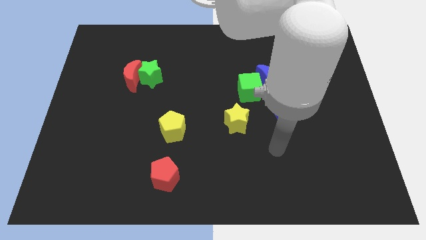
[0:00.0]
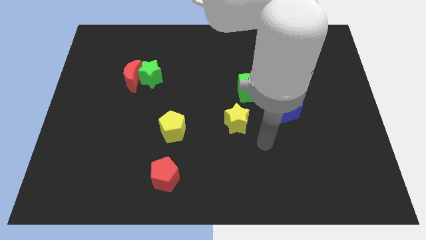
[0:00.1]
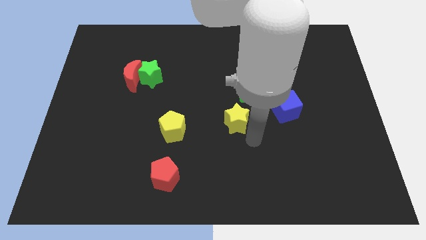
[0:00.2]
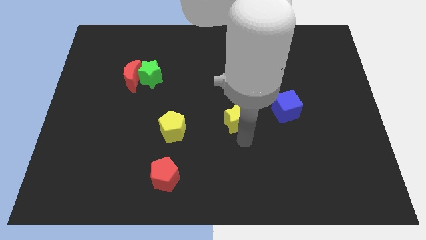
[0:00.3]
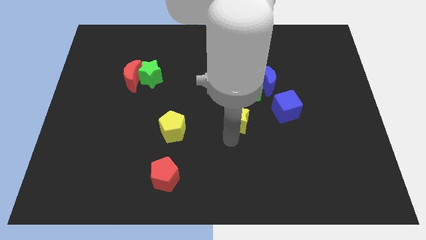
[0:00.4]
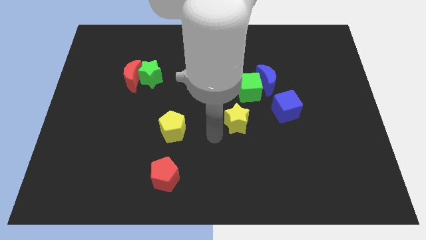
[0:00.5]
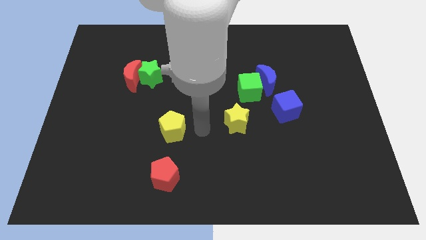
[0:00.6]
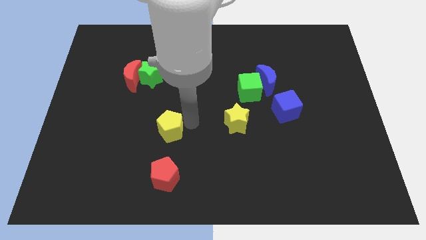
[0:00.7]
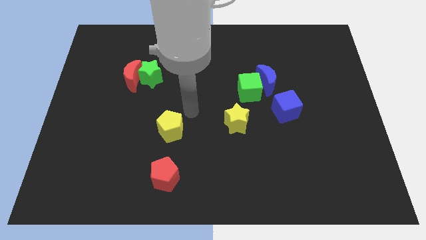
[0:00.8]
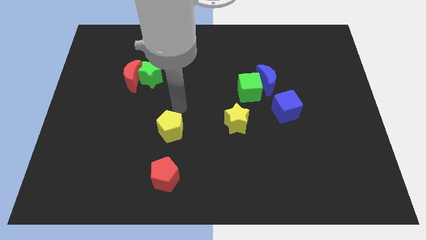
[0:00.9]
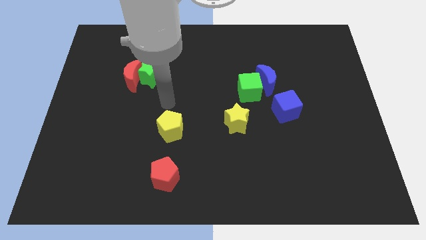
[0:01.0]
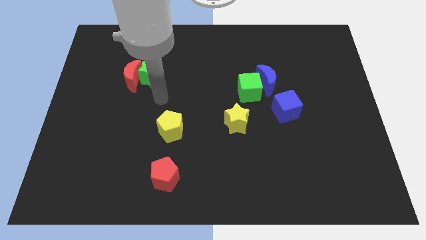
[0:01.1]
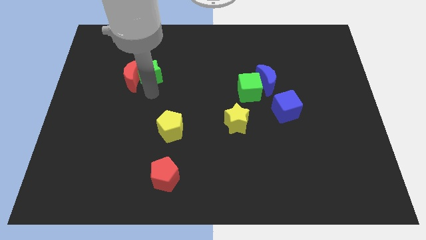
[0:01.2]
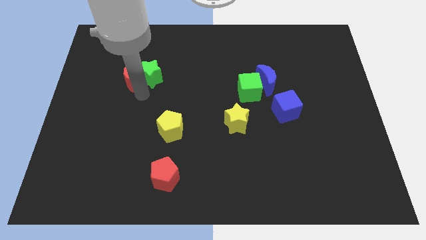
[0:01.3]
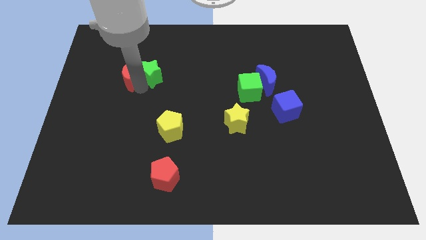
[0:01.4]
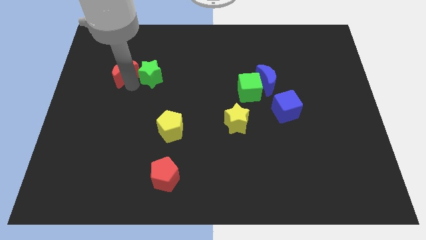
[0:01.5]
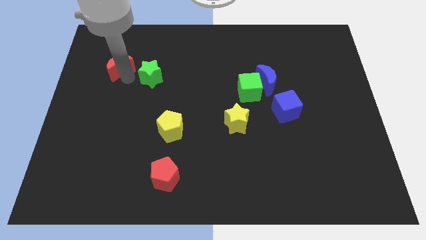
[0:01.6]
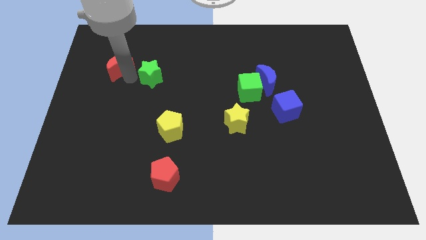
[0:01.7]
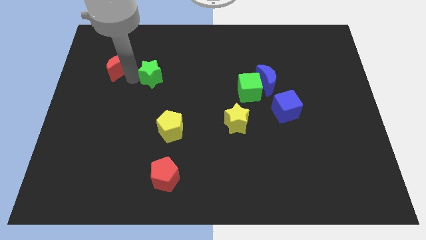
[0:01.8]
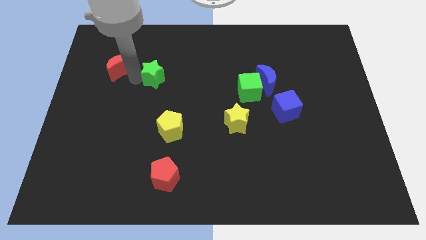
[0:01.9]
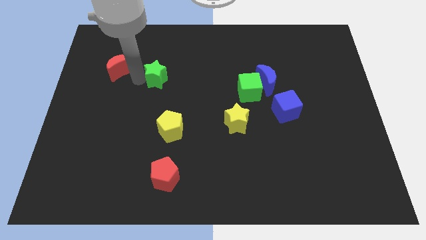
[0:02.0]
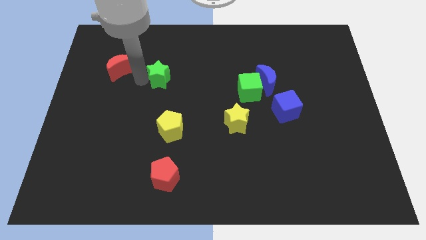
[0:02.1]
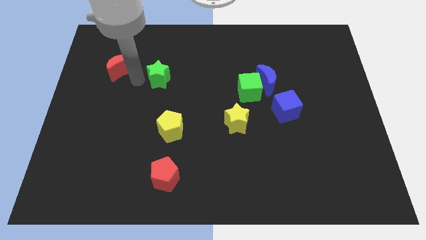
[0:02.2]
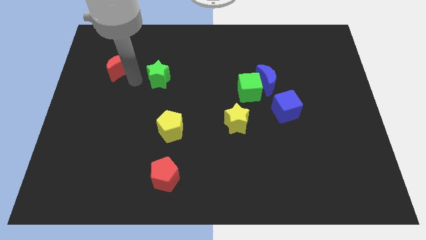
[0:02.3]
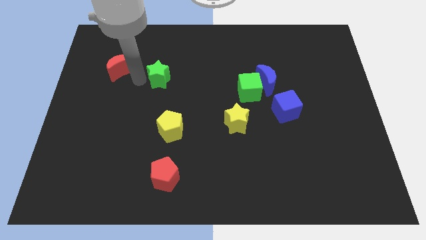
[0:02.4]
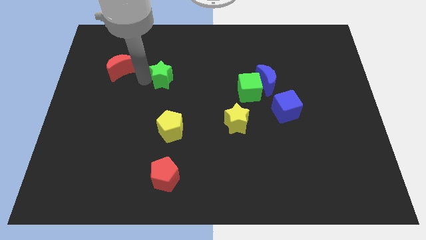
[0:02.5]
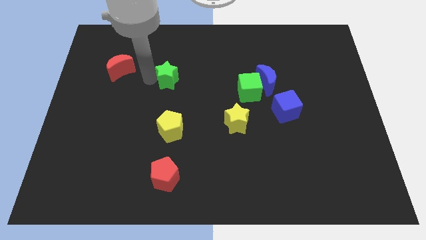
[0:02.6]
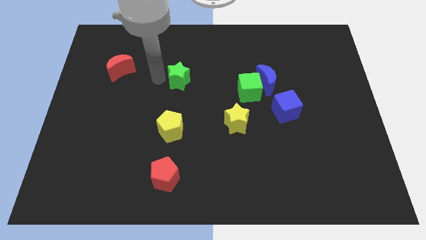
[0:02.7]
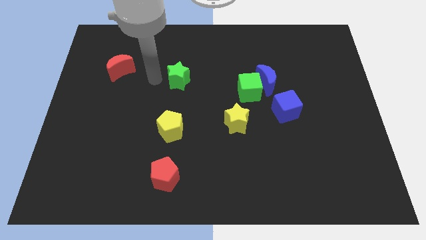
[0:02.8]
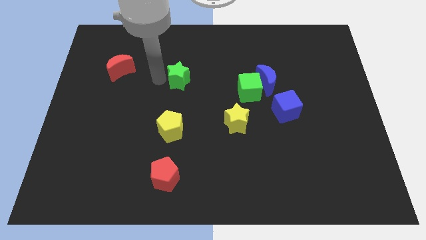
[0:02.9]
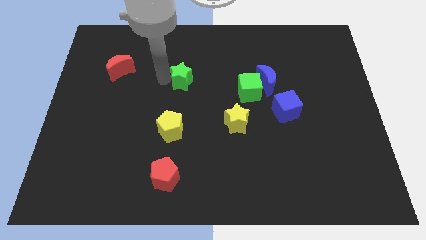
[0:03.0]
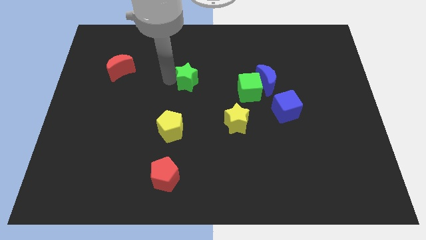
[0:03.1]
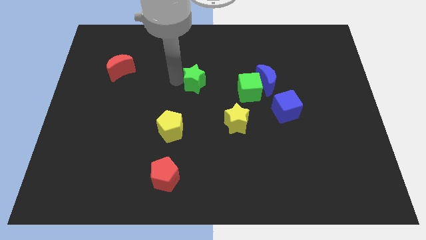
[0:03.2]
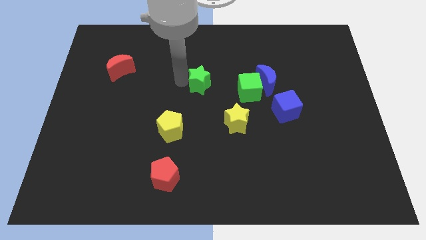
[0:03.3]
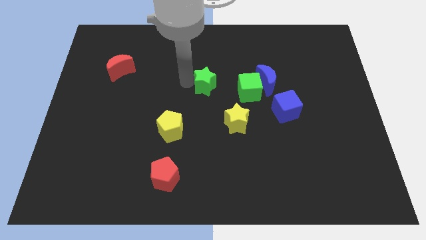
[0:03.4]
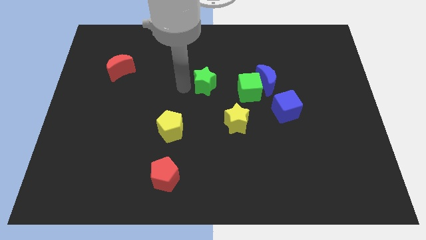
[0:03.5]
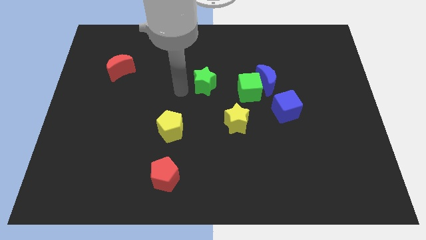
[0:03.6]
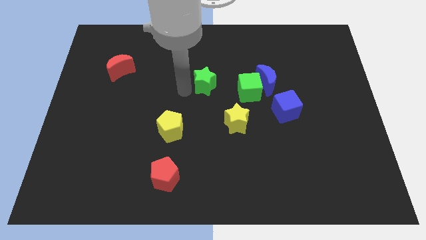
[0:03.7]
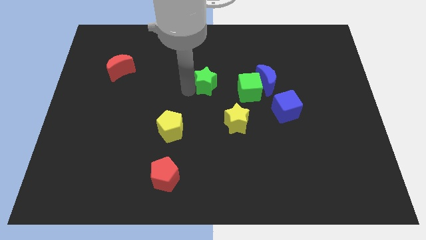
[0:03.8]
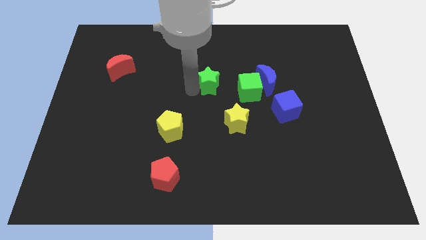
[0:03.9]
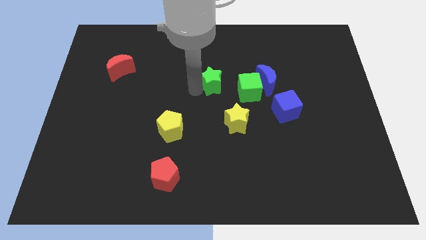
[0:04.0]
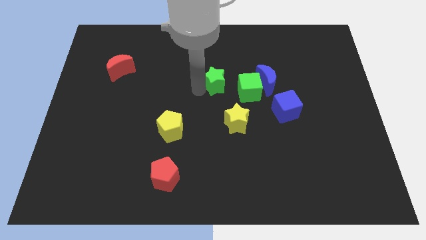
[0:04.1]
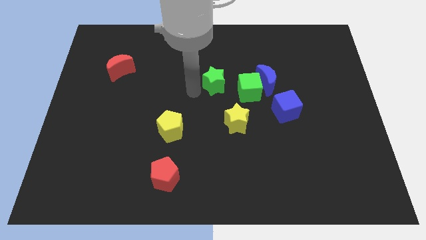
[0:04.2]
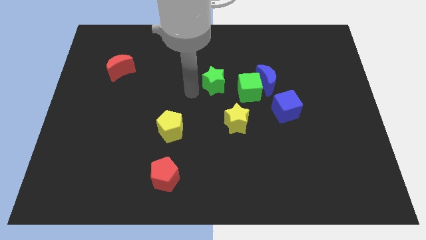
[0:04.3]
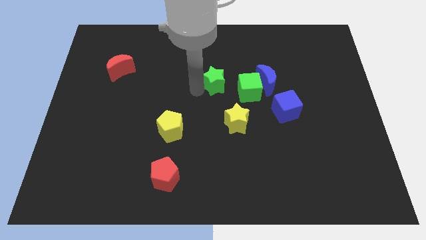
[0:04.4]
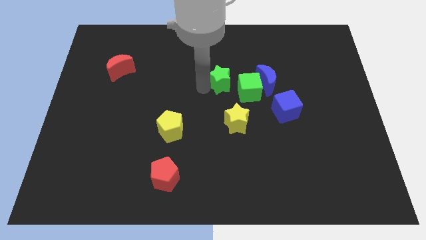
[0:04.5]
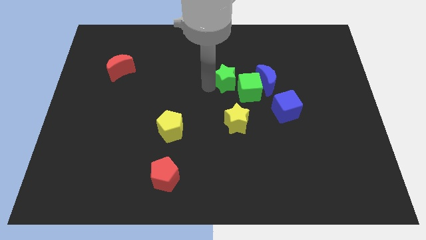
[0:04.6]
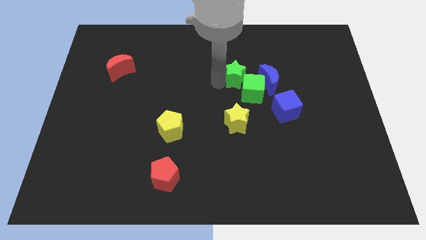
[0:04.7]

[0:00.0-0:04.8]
move the green star right

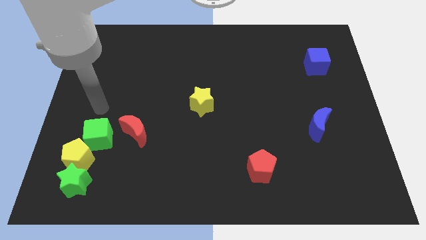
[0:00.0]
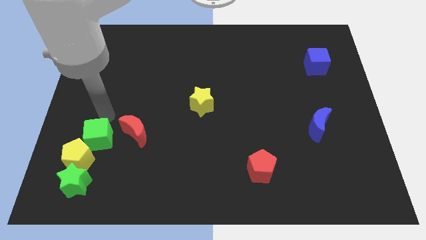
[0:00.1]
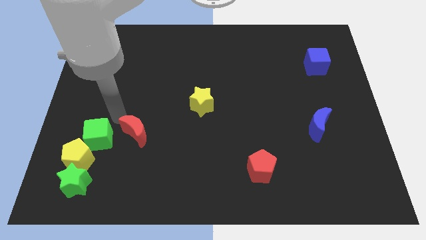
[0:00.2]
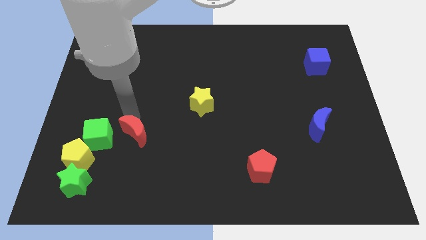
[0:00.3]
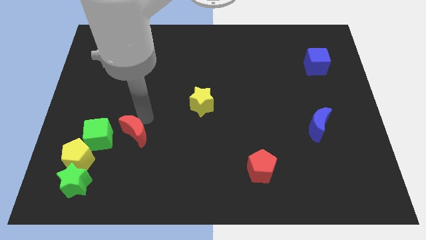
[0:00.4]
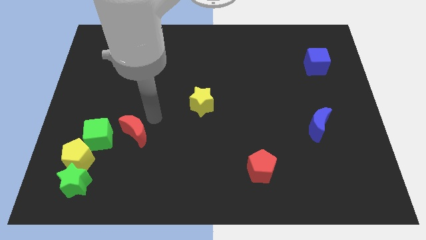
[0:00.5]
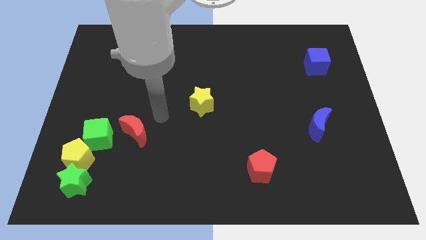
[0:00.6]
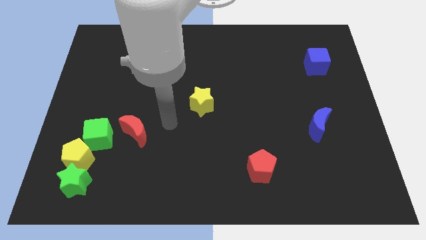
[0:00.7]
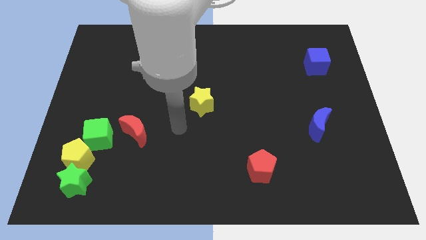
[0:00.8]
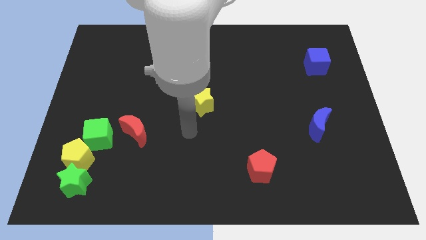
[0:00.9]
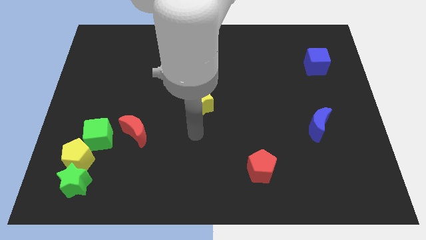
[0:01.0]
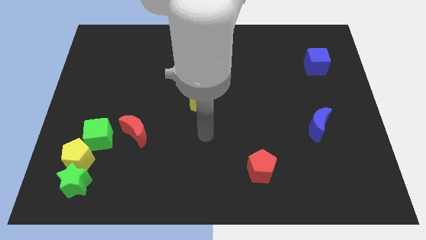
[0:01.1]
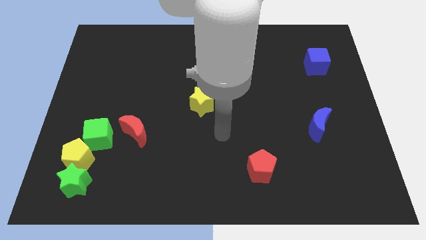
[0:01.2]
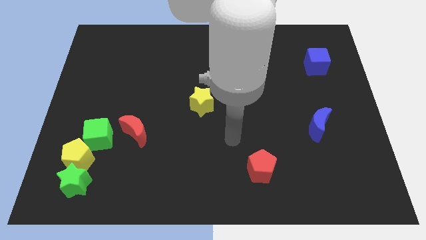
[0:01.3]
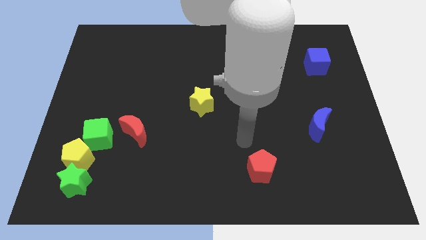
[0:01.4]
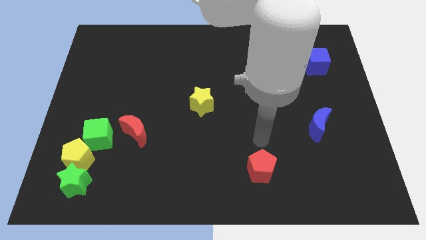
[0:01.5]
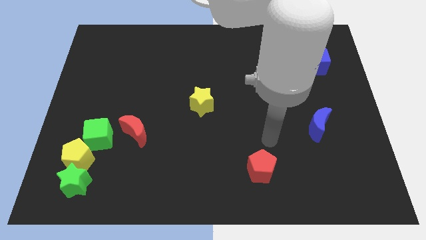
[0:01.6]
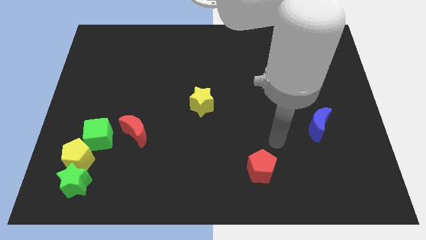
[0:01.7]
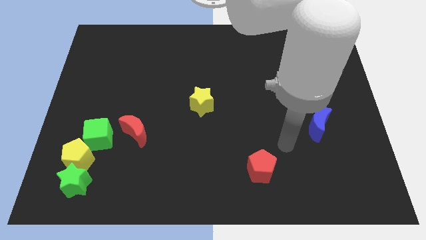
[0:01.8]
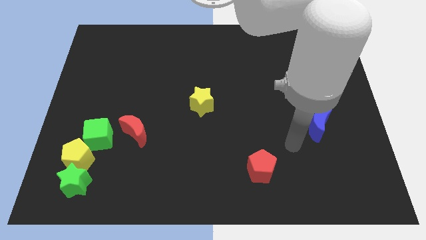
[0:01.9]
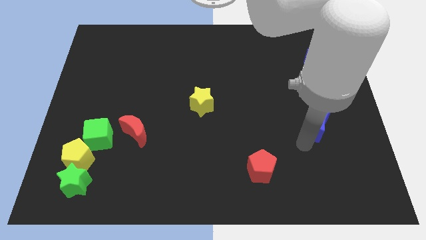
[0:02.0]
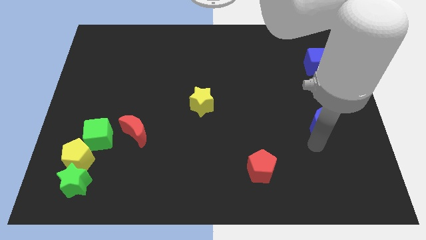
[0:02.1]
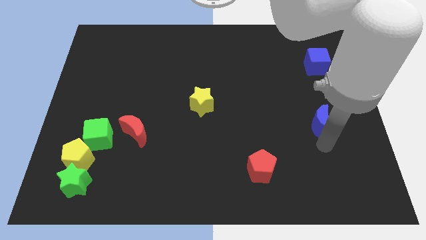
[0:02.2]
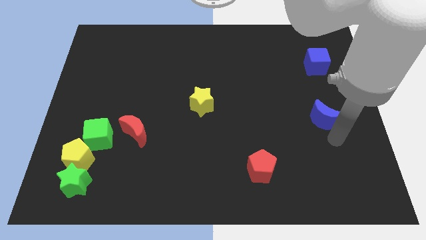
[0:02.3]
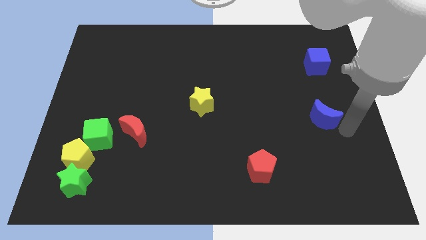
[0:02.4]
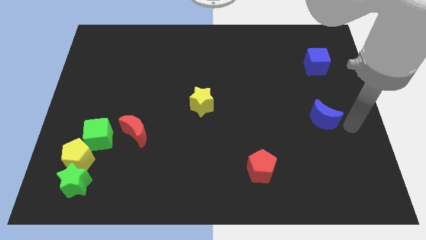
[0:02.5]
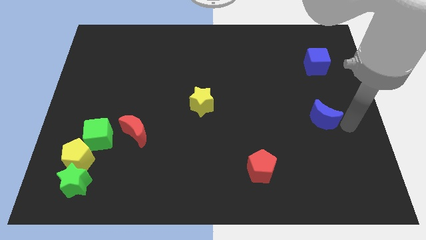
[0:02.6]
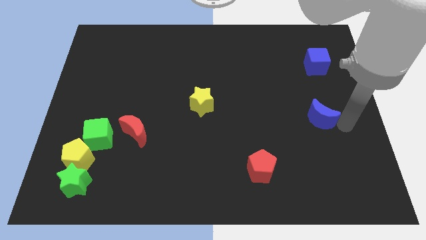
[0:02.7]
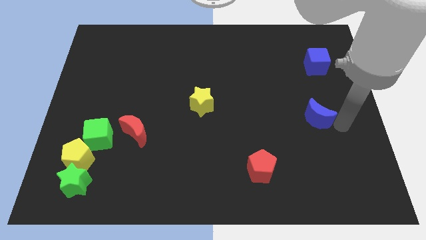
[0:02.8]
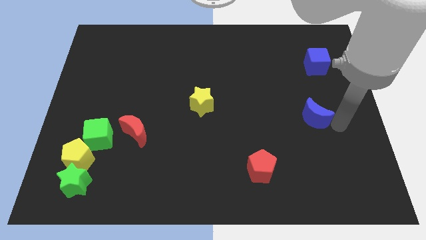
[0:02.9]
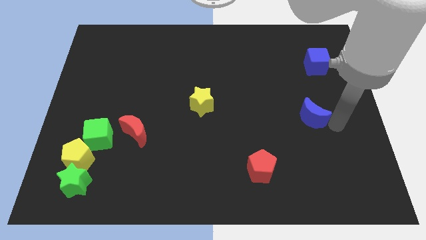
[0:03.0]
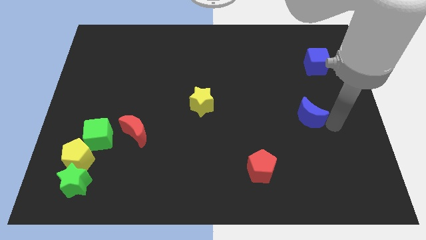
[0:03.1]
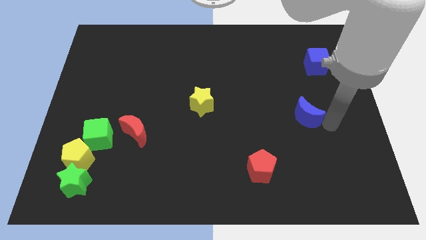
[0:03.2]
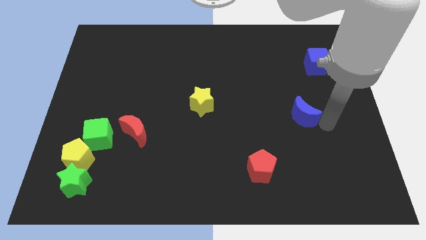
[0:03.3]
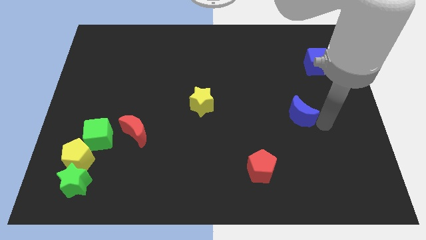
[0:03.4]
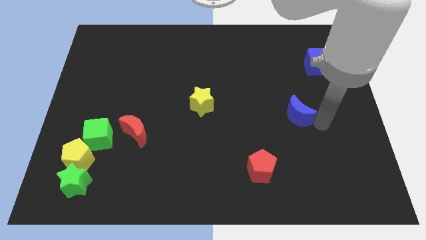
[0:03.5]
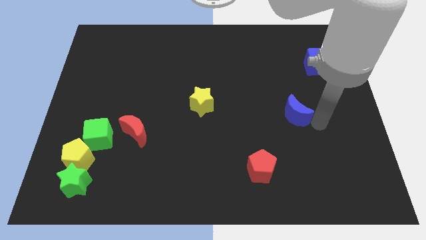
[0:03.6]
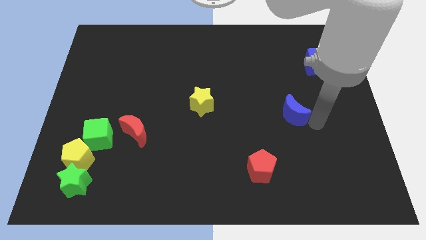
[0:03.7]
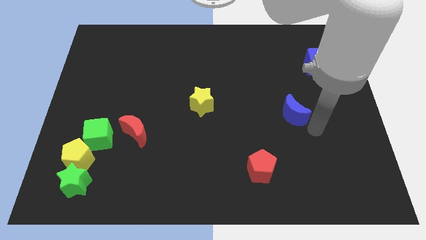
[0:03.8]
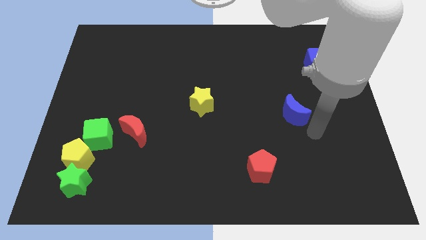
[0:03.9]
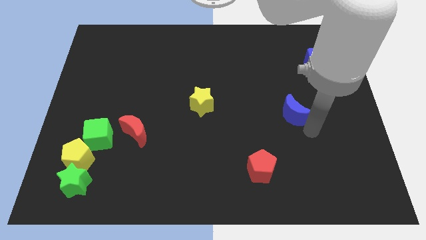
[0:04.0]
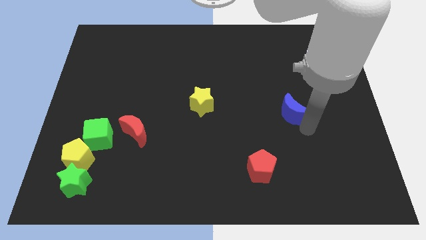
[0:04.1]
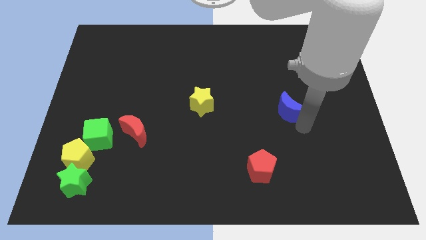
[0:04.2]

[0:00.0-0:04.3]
slightly move the blue moon upwards and to the left
